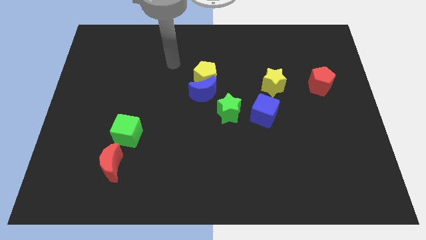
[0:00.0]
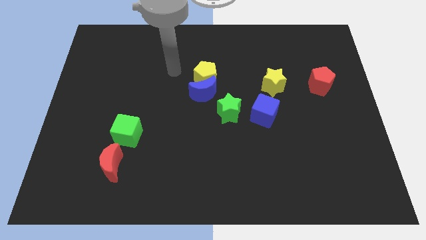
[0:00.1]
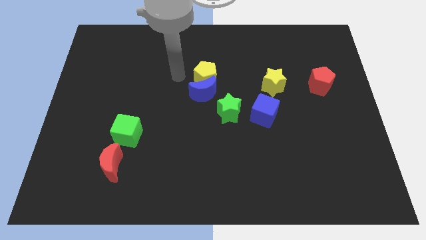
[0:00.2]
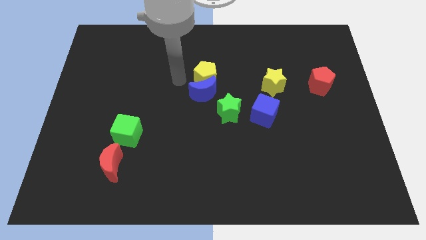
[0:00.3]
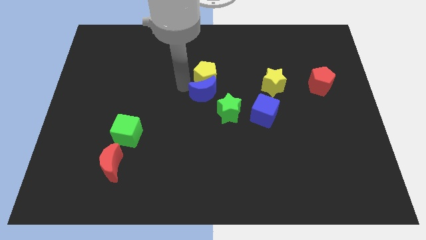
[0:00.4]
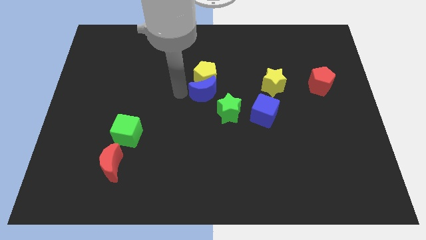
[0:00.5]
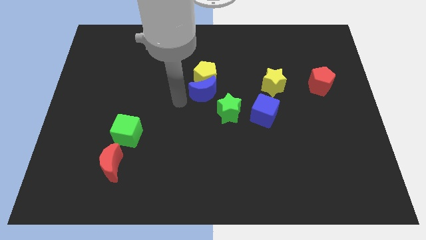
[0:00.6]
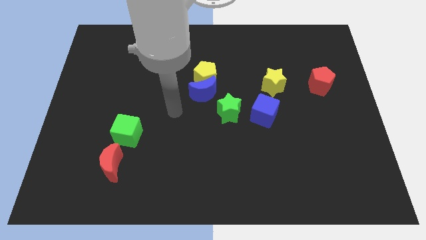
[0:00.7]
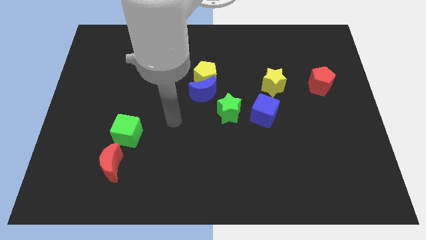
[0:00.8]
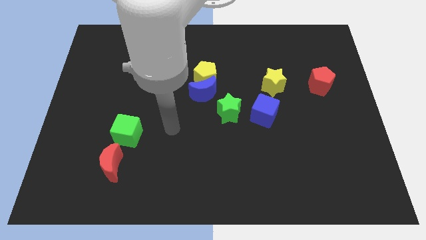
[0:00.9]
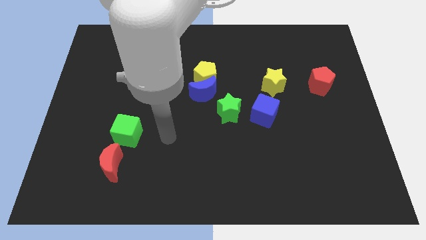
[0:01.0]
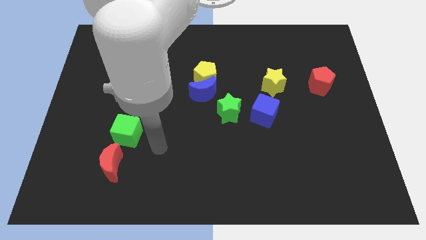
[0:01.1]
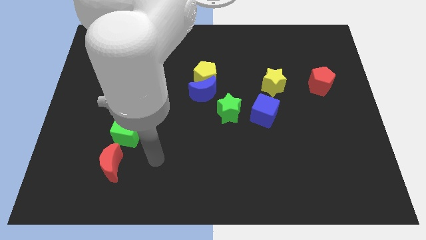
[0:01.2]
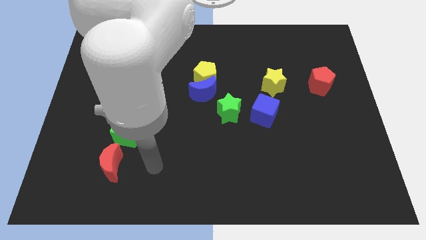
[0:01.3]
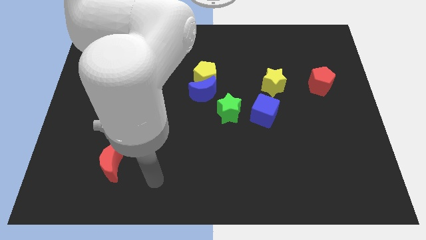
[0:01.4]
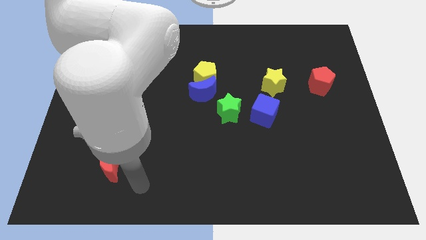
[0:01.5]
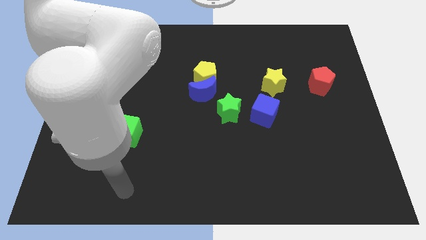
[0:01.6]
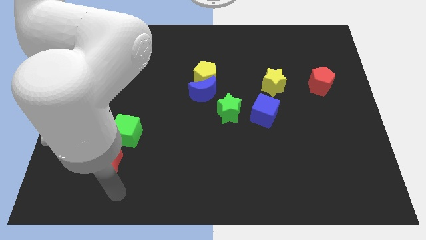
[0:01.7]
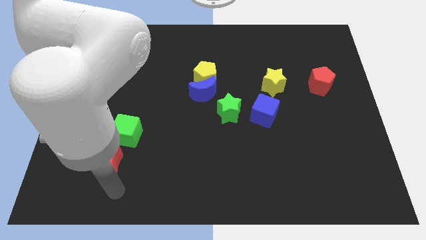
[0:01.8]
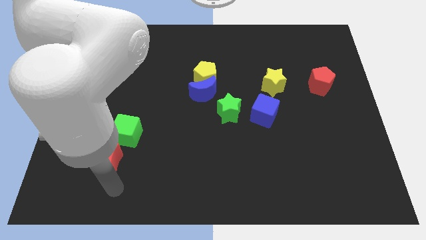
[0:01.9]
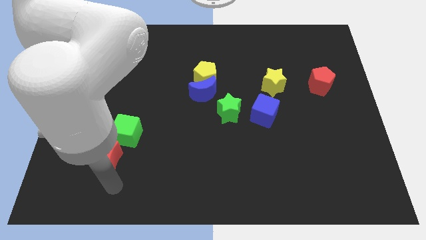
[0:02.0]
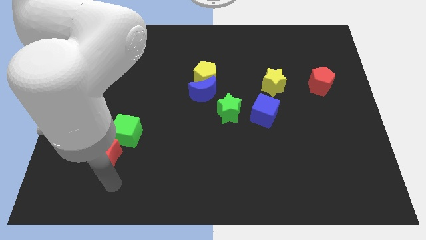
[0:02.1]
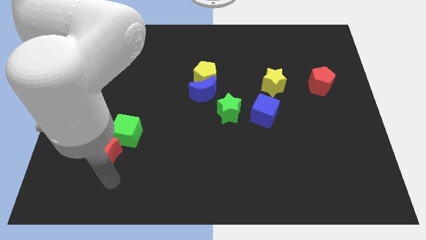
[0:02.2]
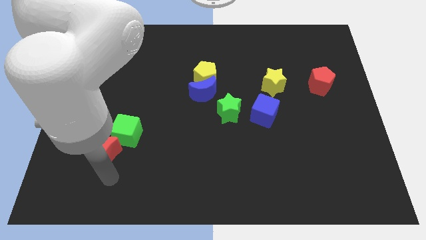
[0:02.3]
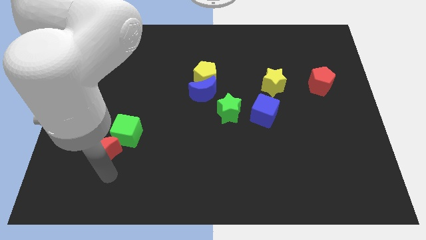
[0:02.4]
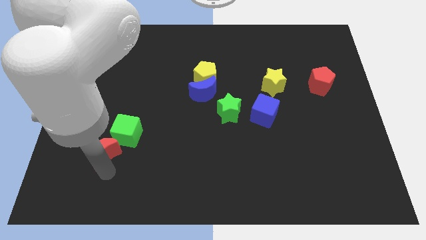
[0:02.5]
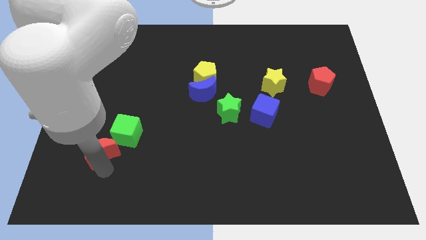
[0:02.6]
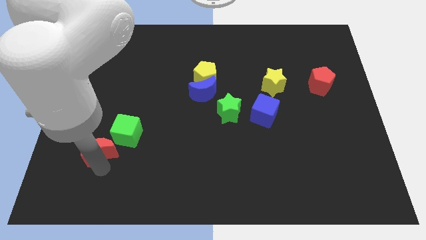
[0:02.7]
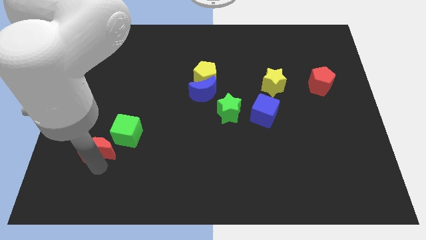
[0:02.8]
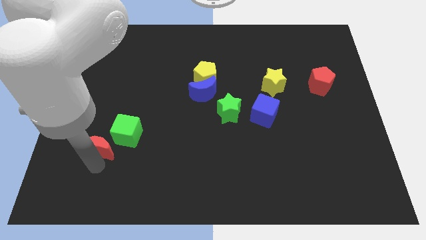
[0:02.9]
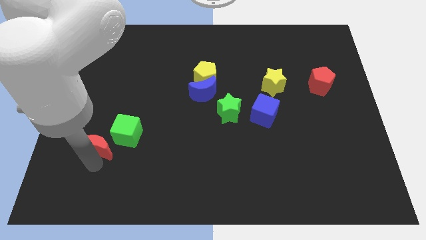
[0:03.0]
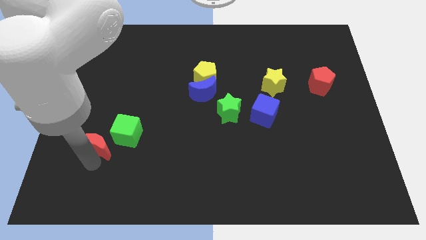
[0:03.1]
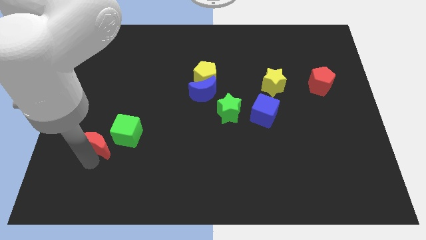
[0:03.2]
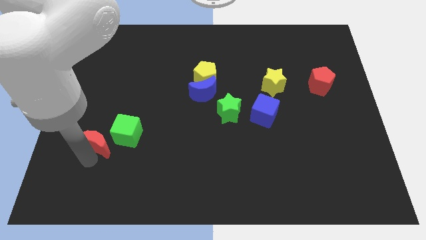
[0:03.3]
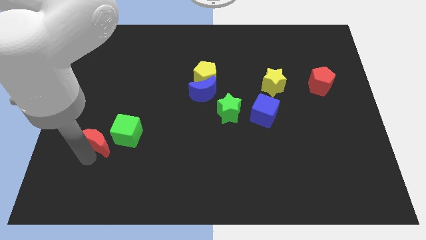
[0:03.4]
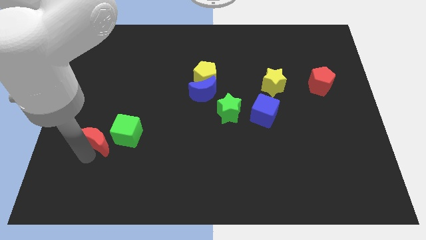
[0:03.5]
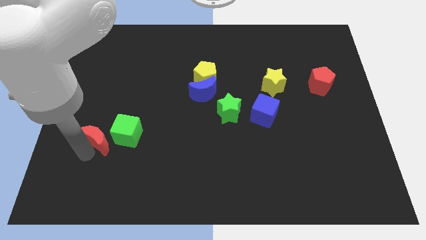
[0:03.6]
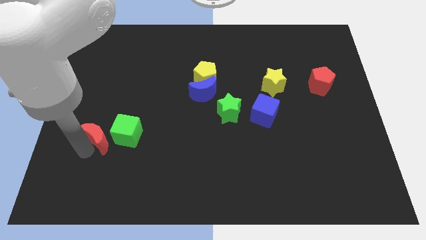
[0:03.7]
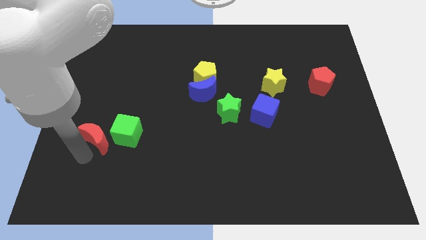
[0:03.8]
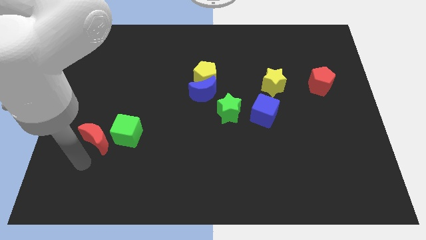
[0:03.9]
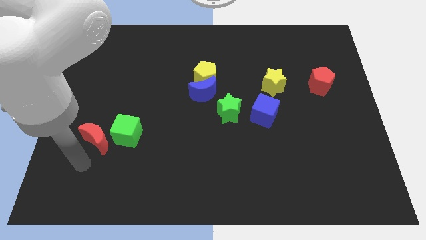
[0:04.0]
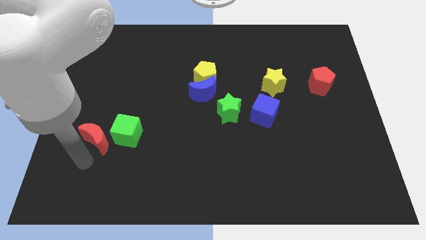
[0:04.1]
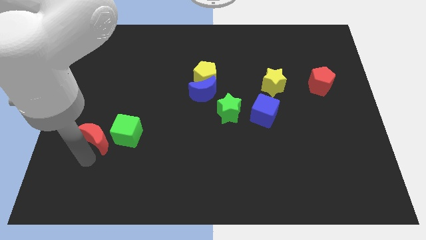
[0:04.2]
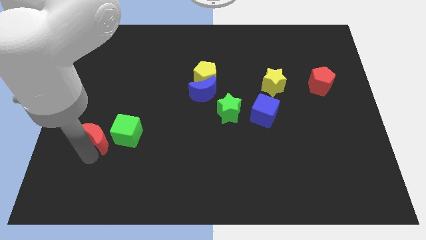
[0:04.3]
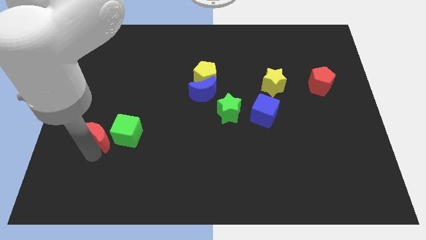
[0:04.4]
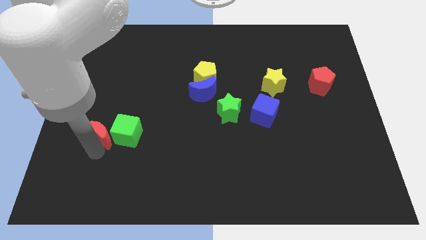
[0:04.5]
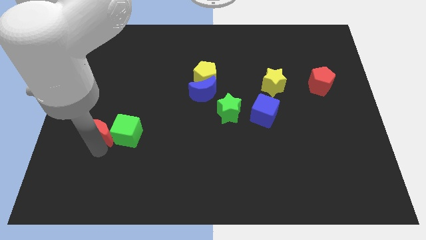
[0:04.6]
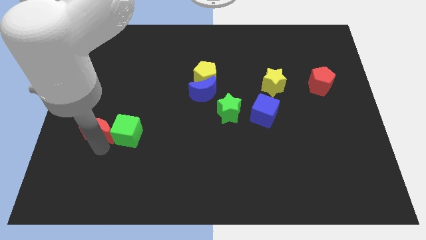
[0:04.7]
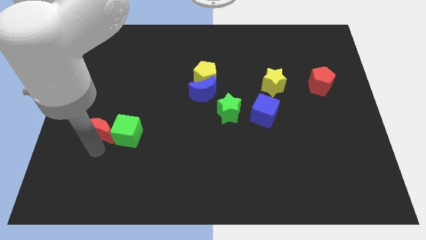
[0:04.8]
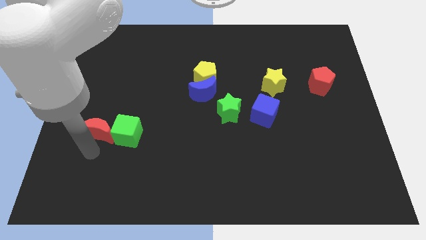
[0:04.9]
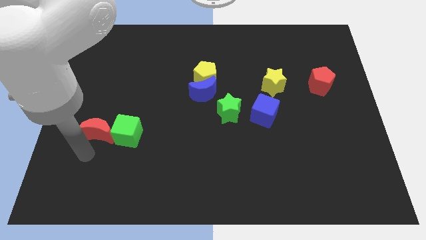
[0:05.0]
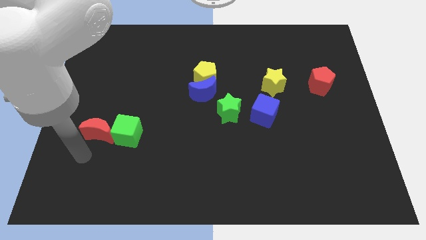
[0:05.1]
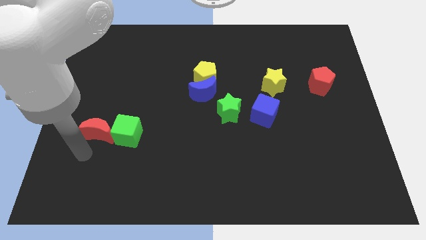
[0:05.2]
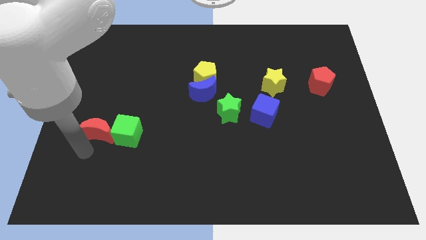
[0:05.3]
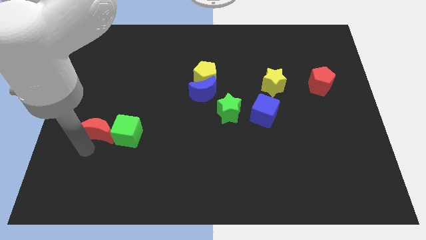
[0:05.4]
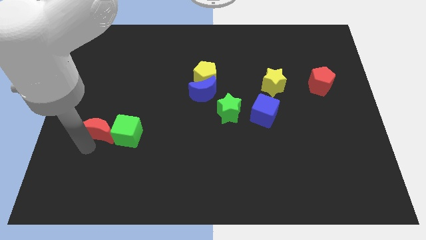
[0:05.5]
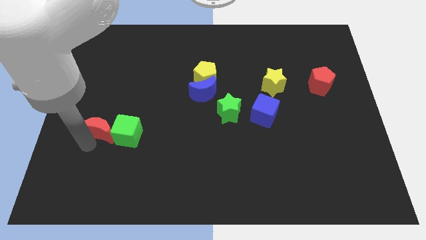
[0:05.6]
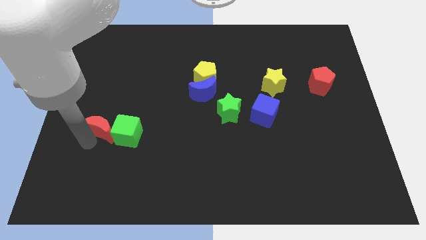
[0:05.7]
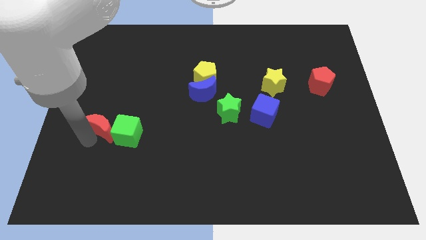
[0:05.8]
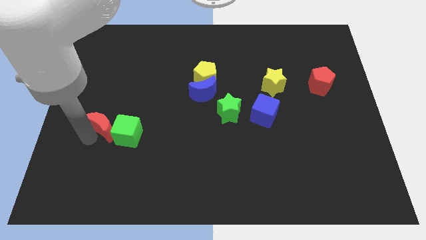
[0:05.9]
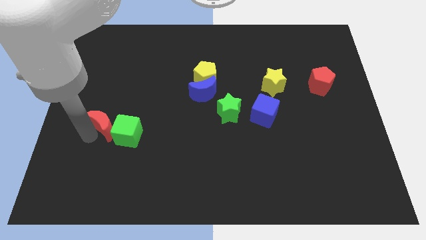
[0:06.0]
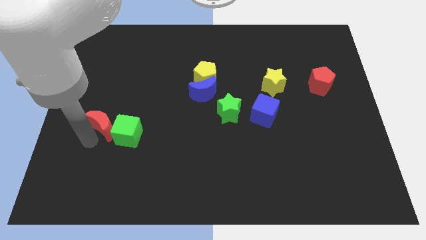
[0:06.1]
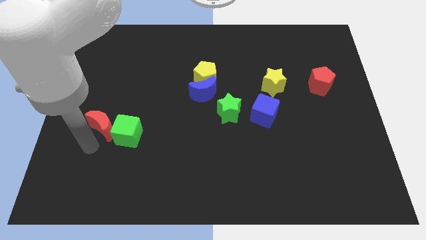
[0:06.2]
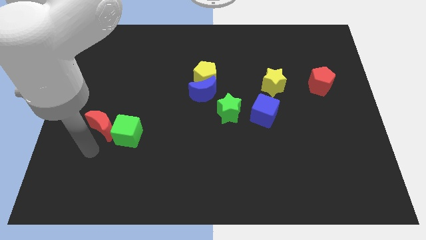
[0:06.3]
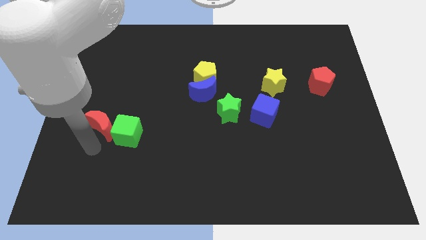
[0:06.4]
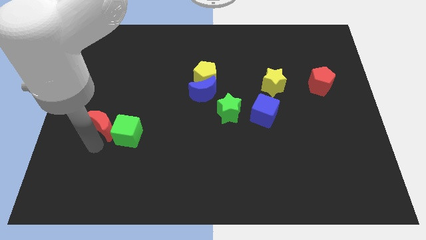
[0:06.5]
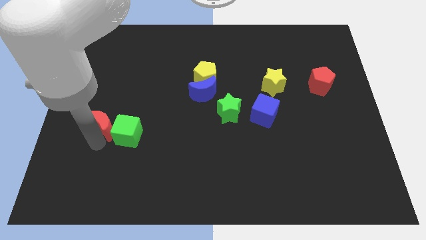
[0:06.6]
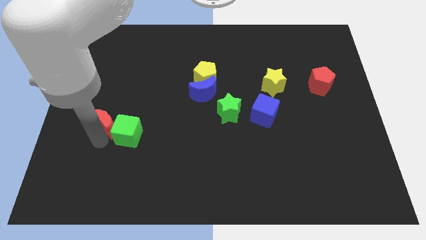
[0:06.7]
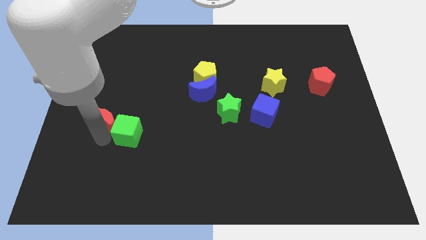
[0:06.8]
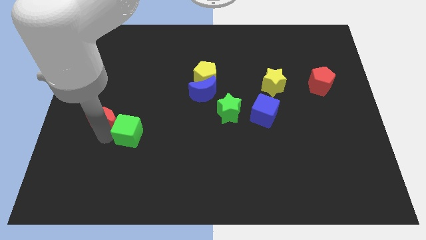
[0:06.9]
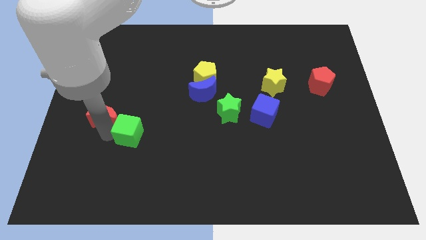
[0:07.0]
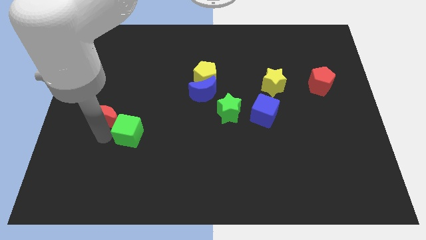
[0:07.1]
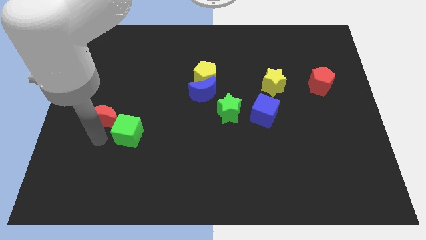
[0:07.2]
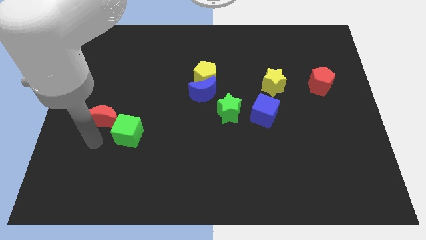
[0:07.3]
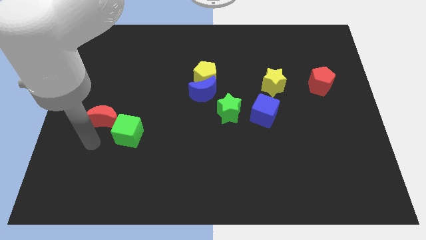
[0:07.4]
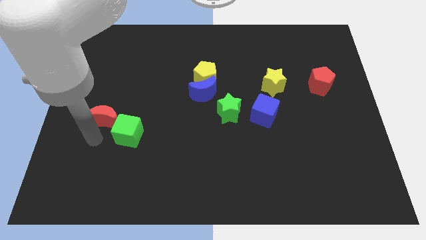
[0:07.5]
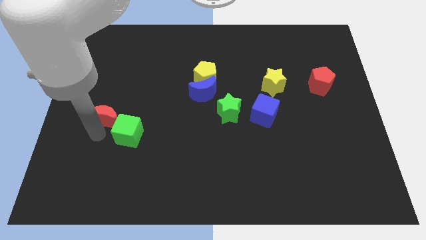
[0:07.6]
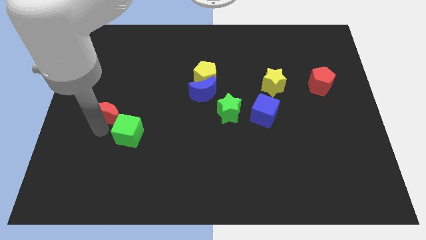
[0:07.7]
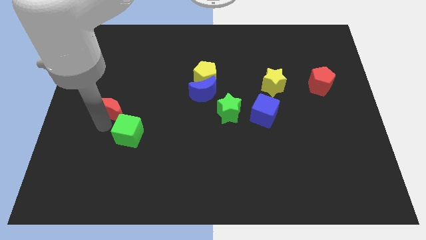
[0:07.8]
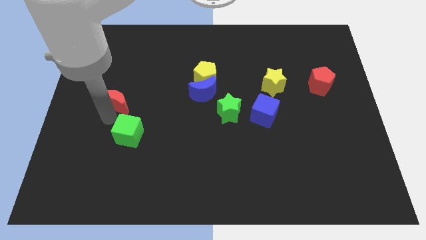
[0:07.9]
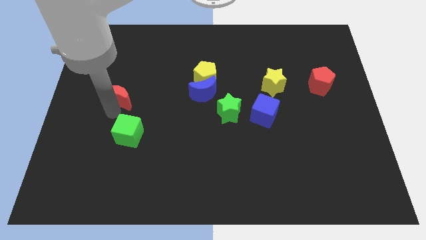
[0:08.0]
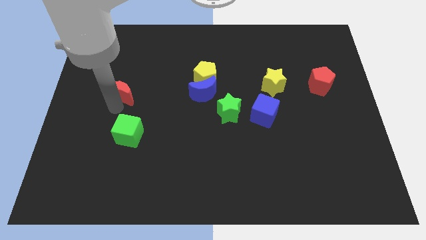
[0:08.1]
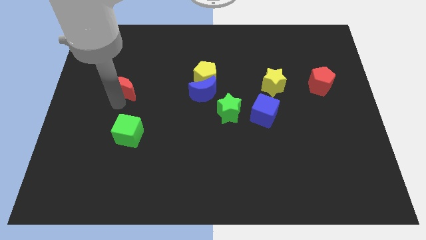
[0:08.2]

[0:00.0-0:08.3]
move the red moon up
